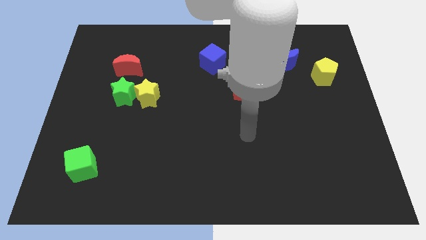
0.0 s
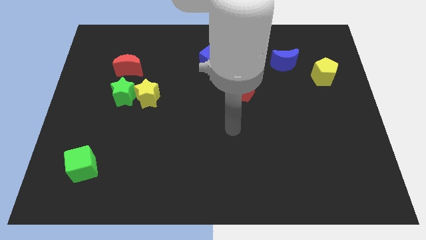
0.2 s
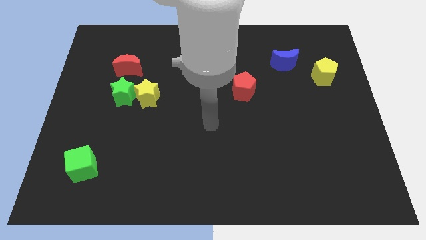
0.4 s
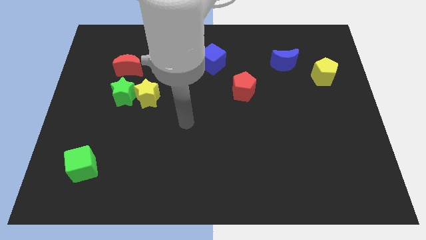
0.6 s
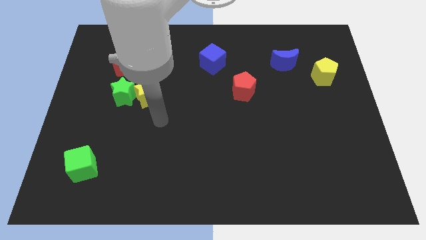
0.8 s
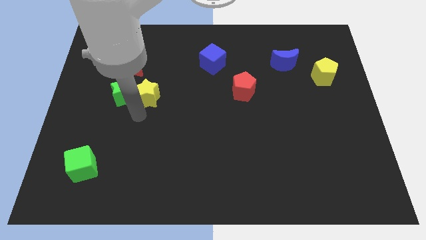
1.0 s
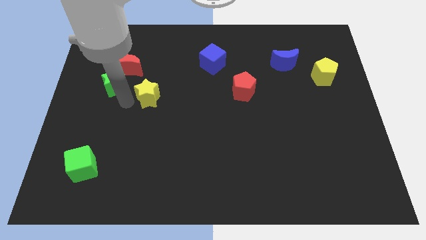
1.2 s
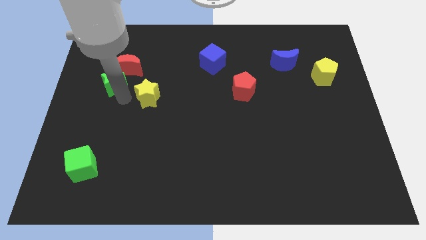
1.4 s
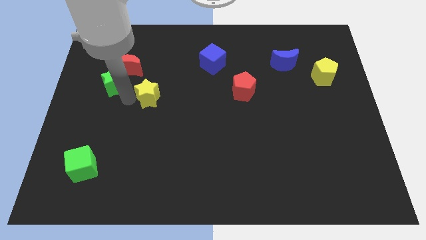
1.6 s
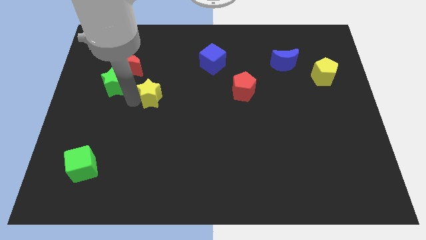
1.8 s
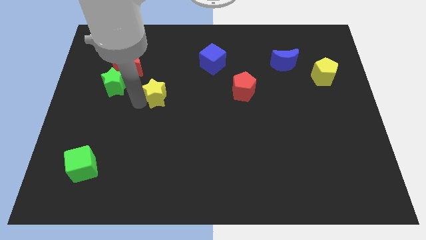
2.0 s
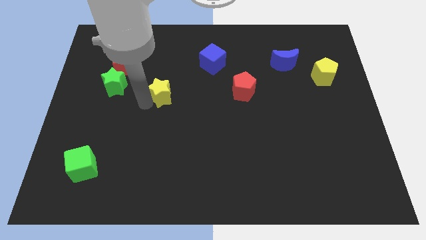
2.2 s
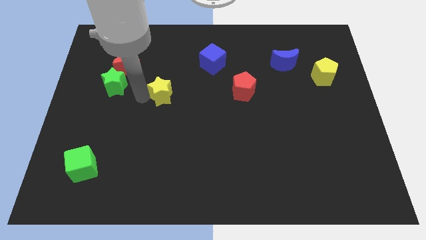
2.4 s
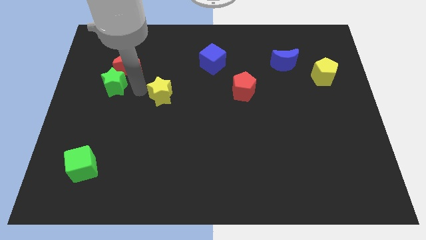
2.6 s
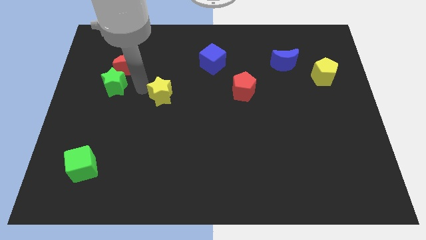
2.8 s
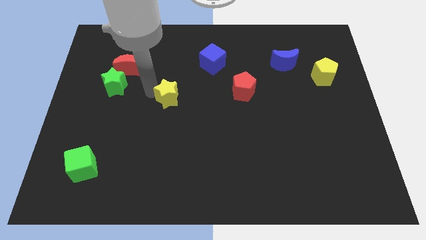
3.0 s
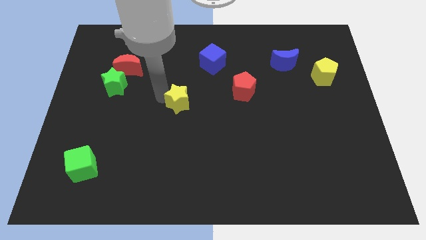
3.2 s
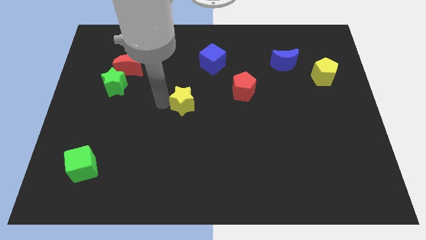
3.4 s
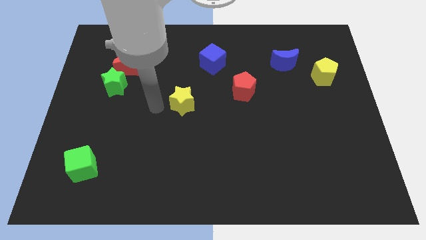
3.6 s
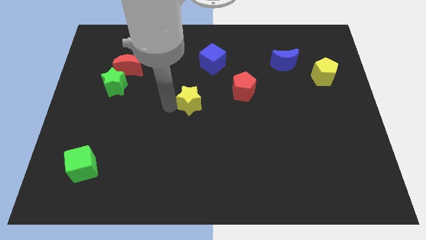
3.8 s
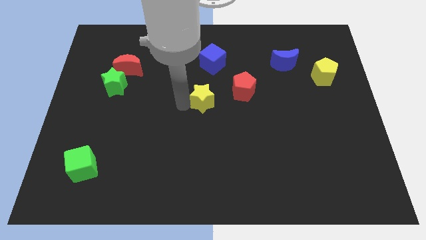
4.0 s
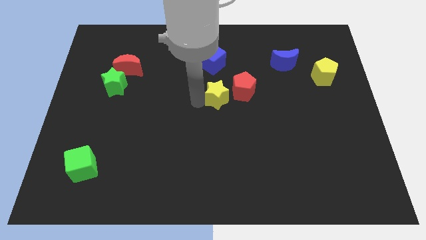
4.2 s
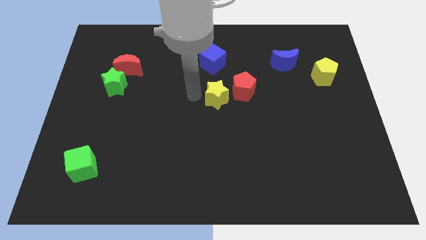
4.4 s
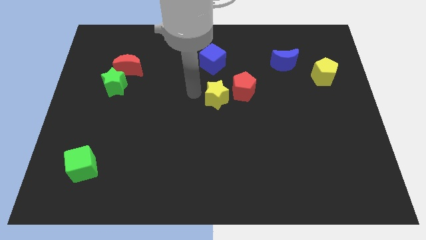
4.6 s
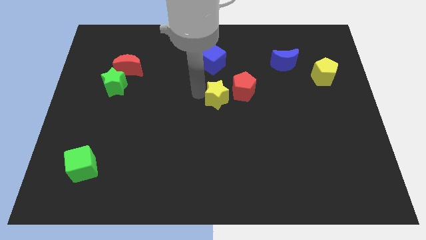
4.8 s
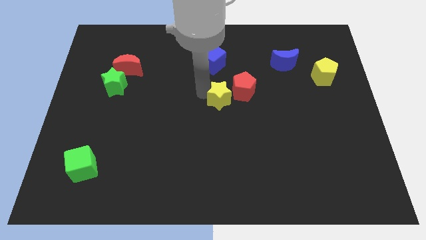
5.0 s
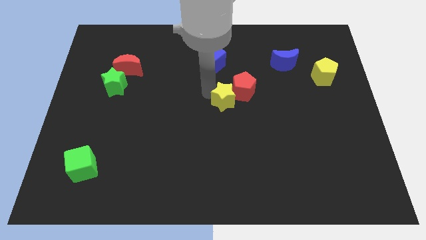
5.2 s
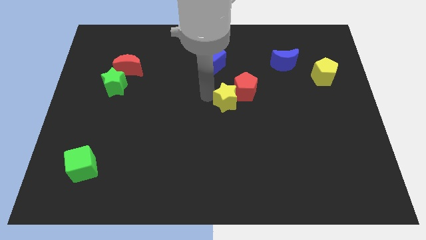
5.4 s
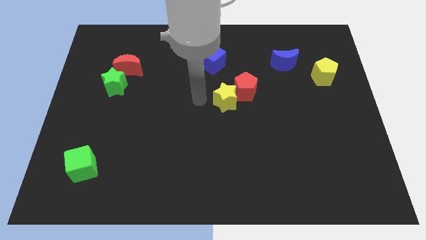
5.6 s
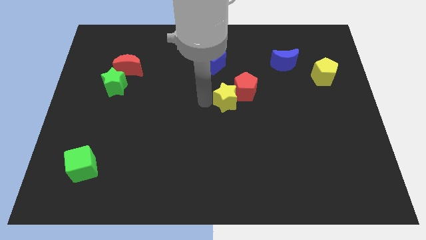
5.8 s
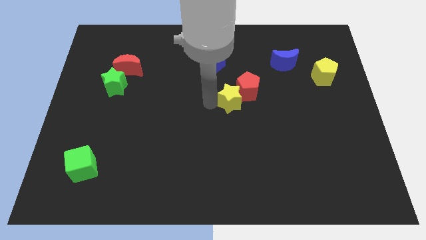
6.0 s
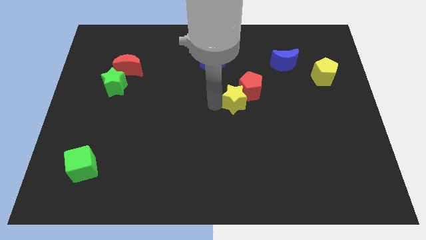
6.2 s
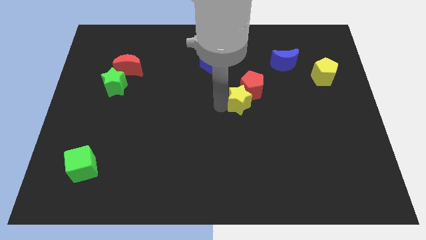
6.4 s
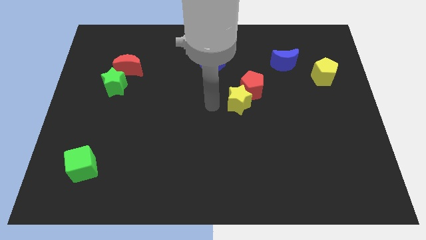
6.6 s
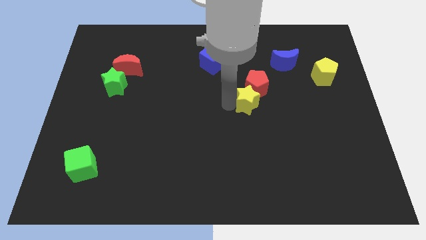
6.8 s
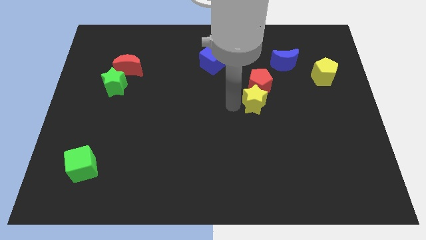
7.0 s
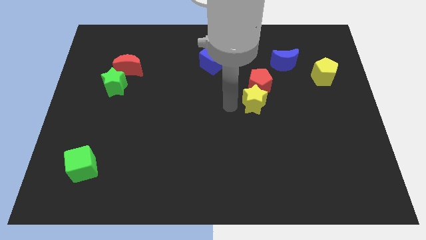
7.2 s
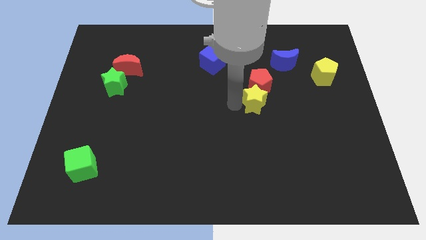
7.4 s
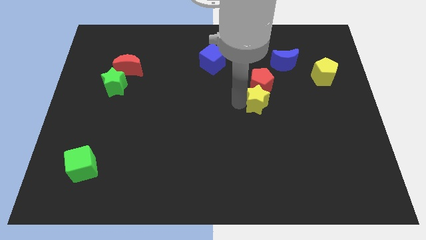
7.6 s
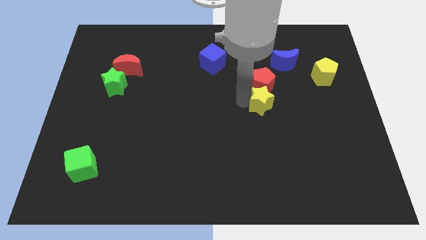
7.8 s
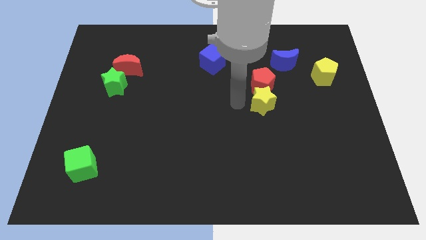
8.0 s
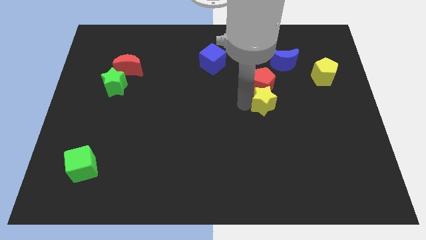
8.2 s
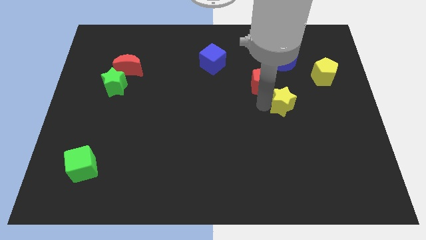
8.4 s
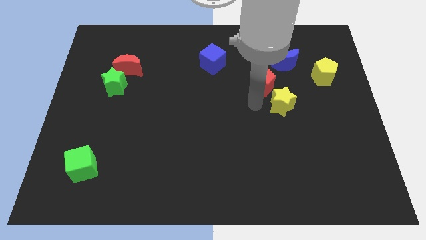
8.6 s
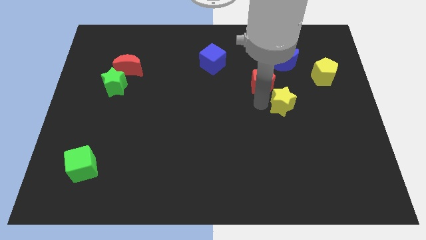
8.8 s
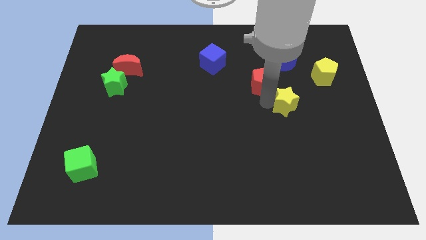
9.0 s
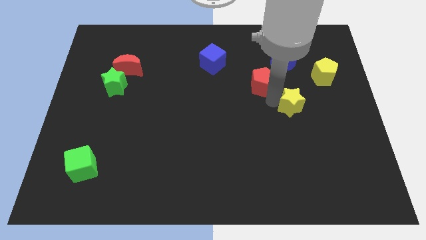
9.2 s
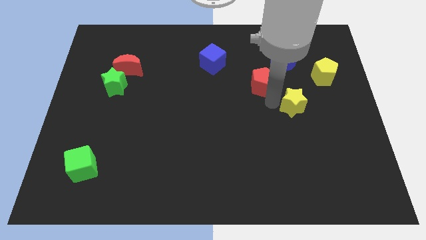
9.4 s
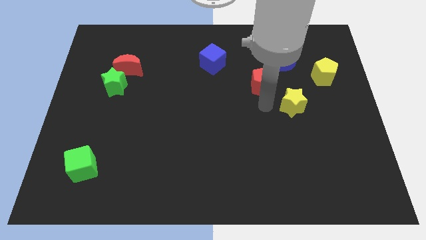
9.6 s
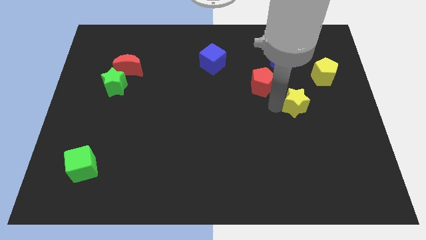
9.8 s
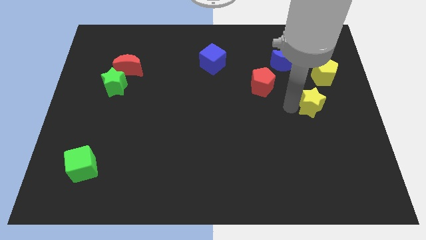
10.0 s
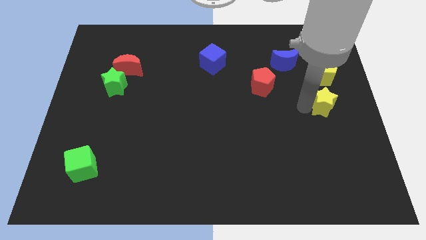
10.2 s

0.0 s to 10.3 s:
put the yellow star to the right side of the board
